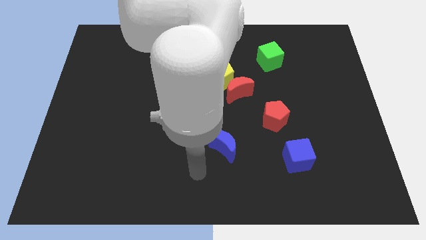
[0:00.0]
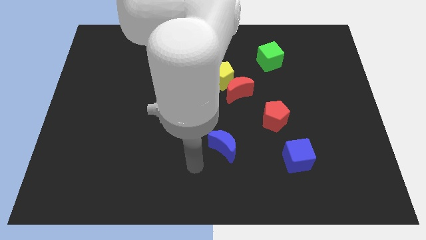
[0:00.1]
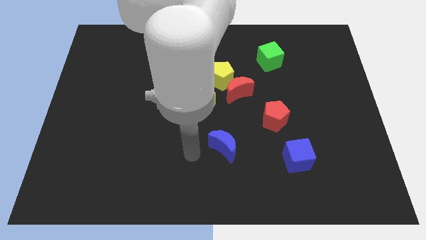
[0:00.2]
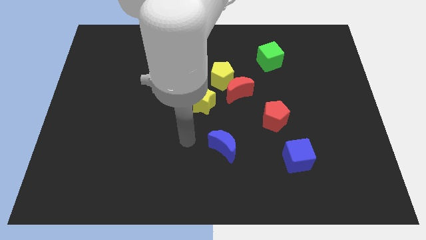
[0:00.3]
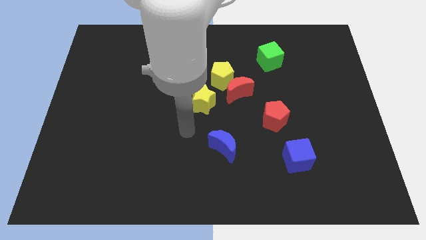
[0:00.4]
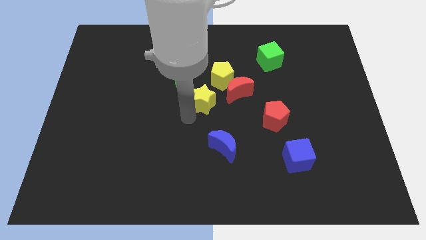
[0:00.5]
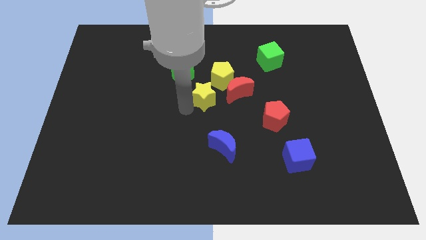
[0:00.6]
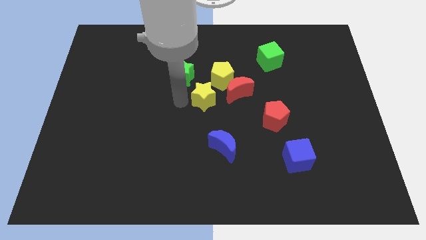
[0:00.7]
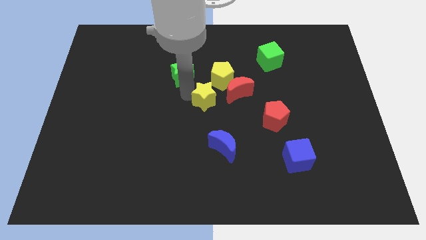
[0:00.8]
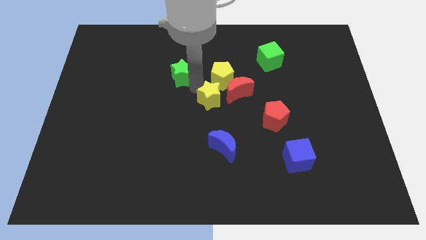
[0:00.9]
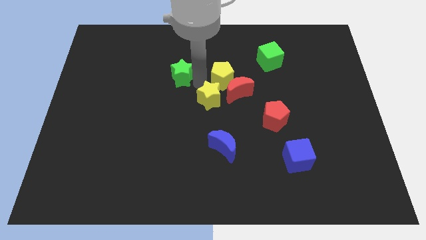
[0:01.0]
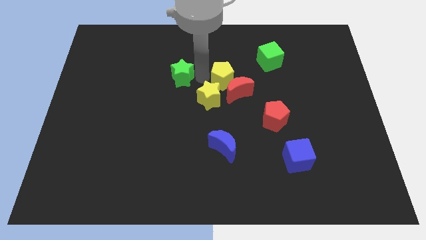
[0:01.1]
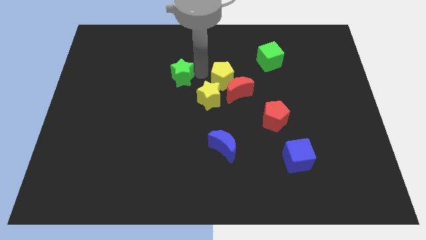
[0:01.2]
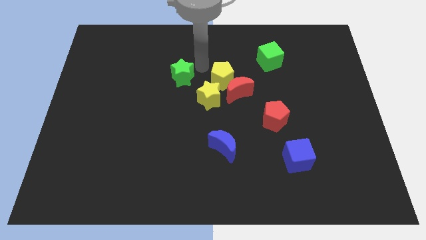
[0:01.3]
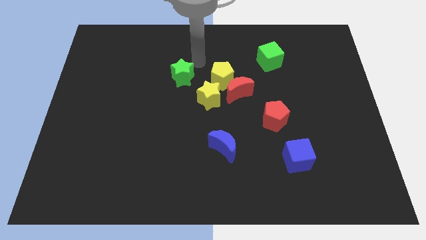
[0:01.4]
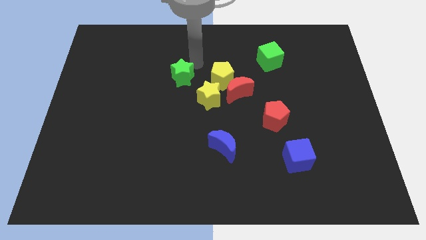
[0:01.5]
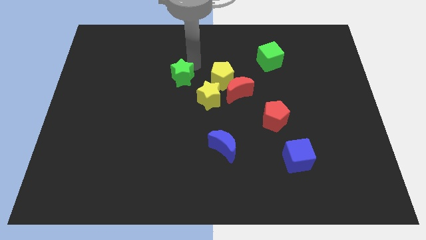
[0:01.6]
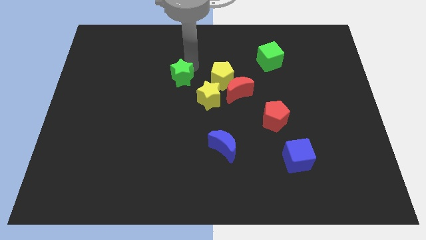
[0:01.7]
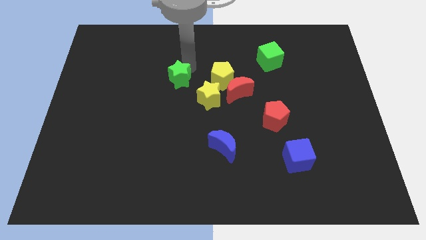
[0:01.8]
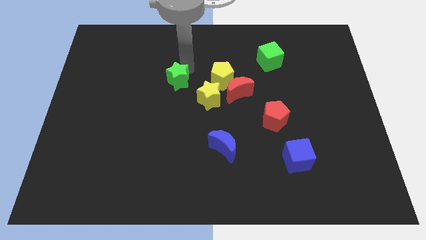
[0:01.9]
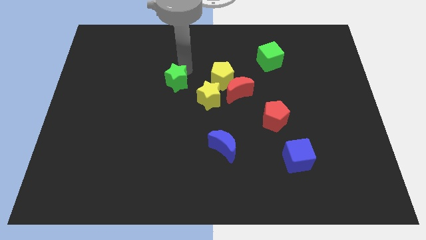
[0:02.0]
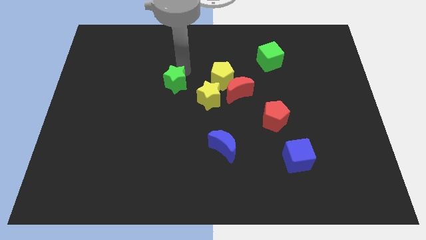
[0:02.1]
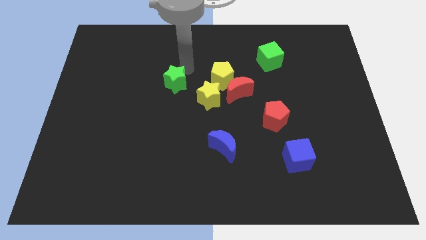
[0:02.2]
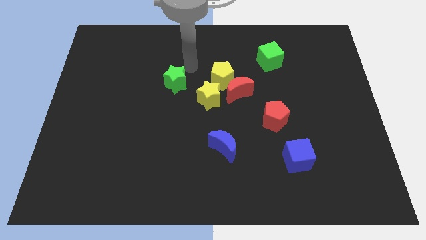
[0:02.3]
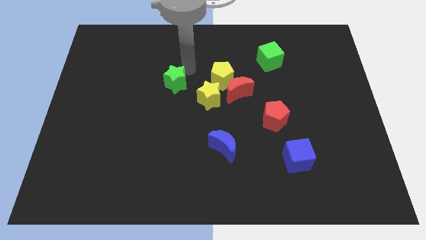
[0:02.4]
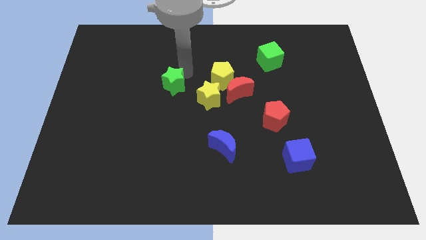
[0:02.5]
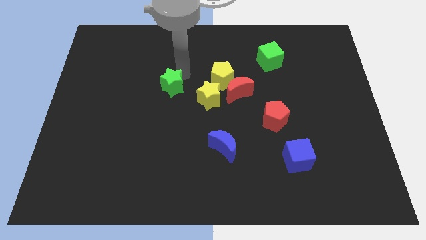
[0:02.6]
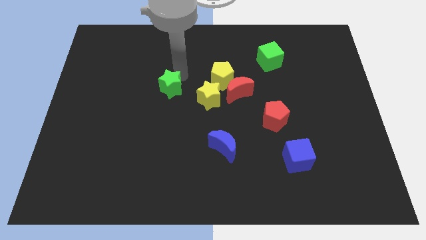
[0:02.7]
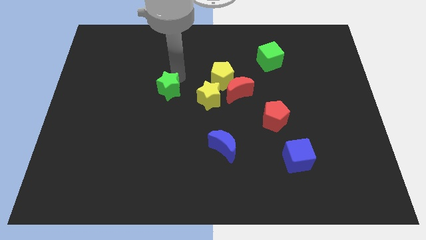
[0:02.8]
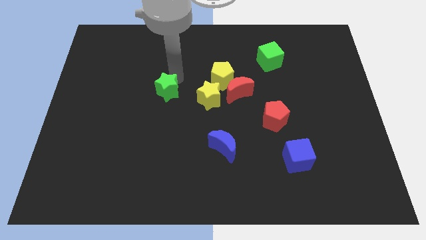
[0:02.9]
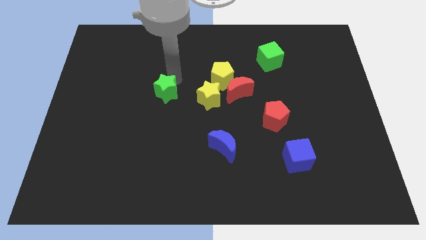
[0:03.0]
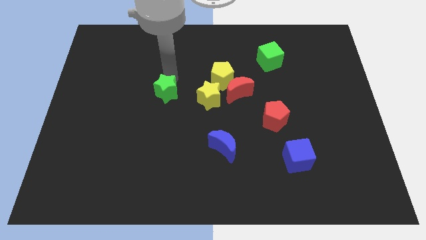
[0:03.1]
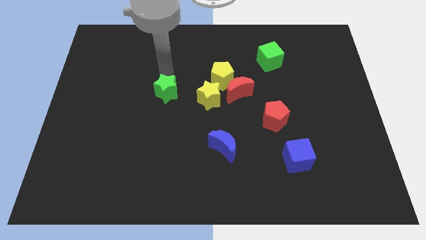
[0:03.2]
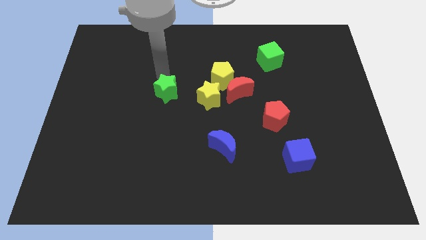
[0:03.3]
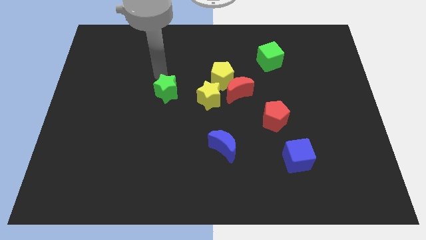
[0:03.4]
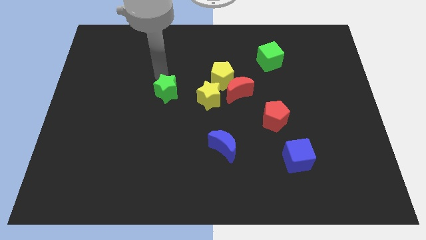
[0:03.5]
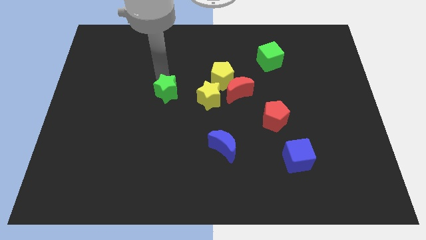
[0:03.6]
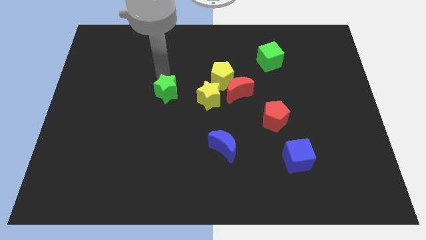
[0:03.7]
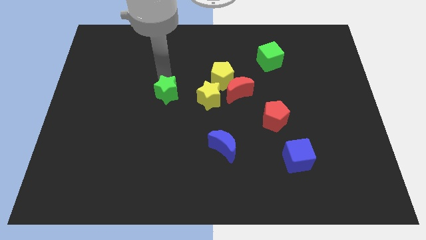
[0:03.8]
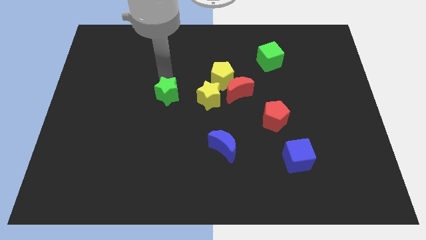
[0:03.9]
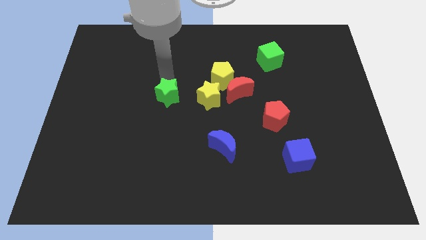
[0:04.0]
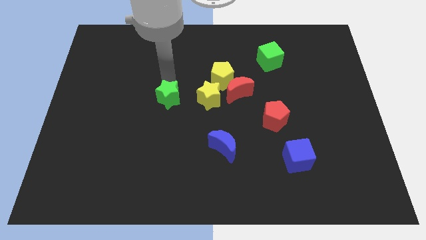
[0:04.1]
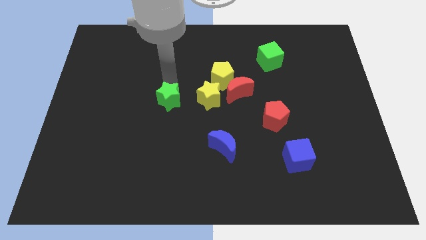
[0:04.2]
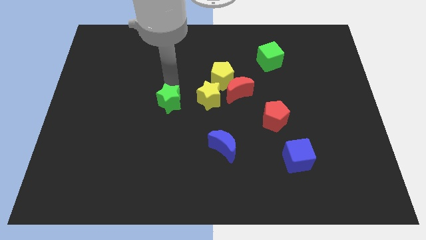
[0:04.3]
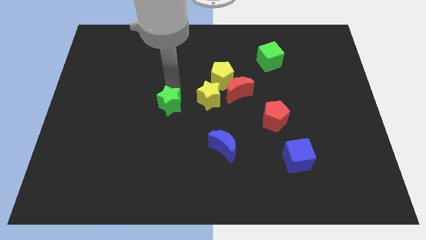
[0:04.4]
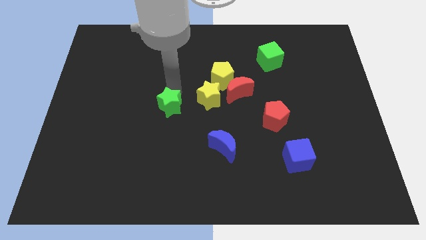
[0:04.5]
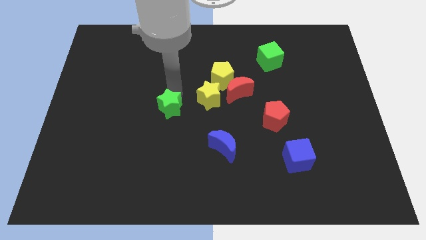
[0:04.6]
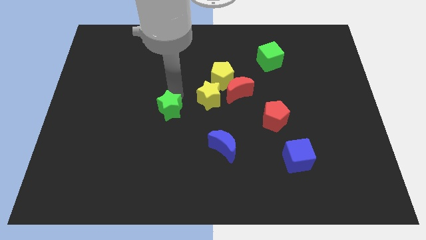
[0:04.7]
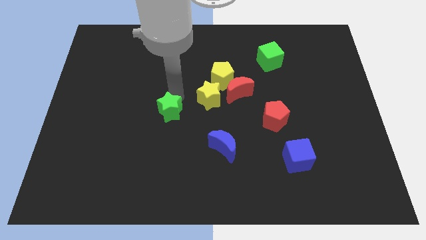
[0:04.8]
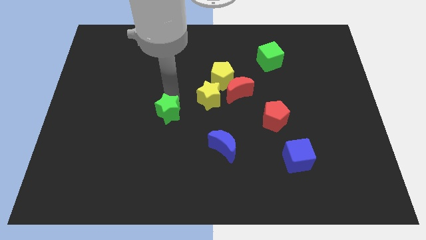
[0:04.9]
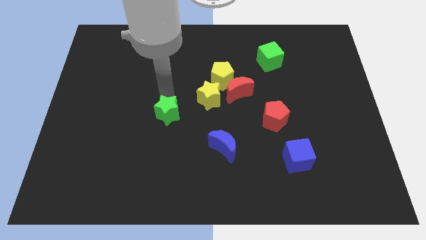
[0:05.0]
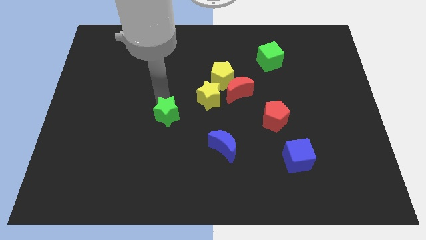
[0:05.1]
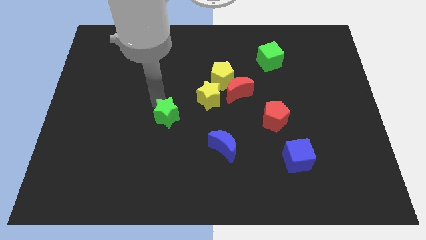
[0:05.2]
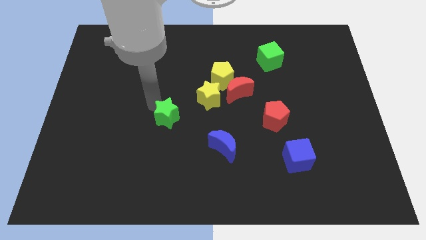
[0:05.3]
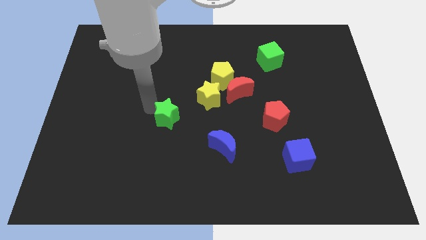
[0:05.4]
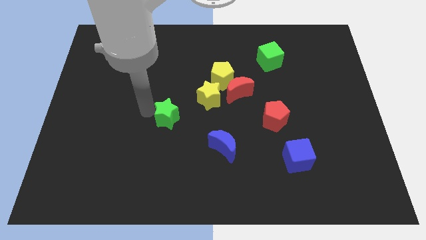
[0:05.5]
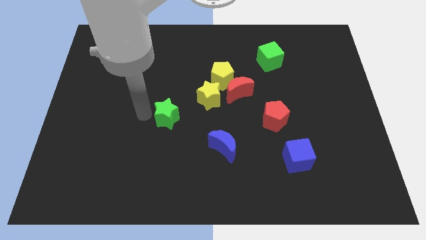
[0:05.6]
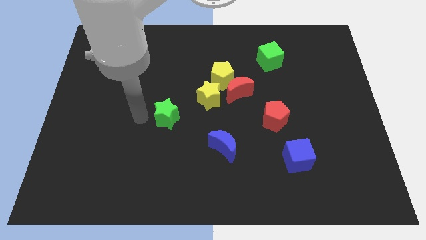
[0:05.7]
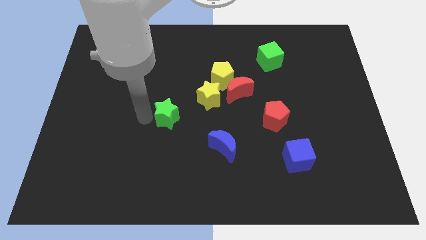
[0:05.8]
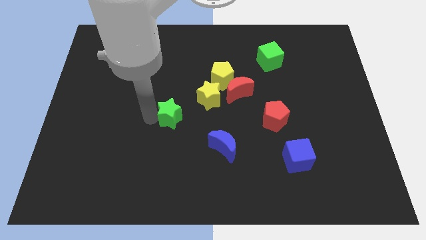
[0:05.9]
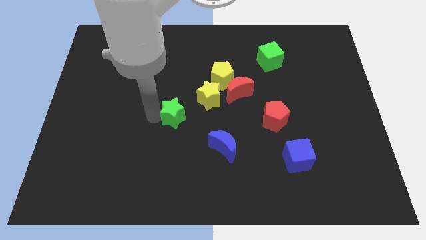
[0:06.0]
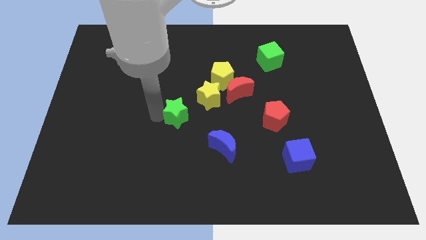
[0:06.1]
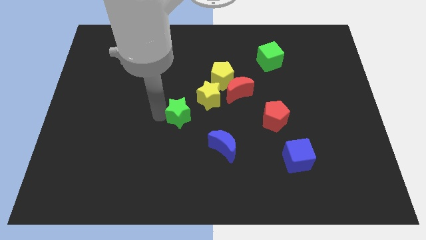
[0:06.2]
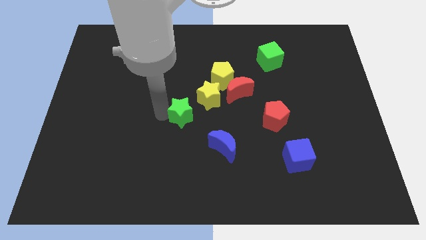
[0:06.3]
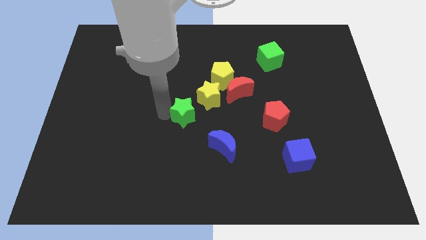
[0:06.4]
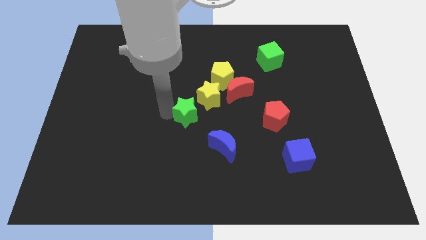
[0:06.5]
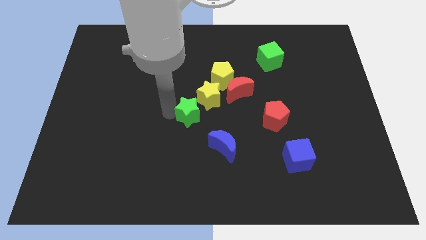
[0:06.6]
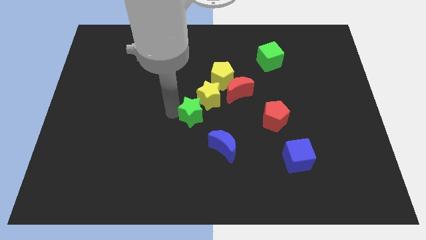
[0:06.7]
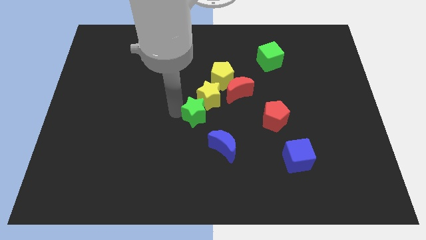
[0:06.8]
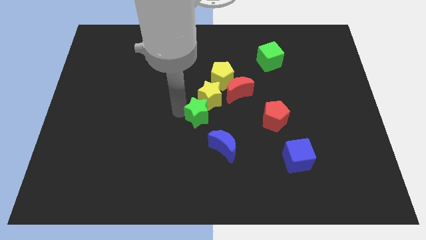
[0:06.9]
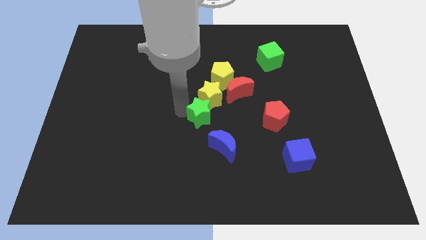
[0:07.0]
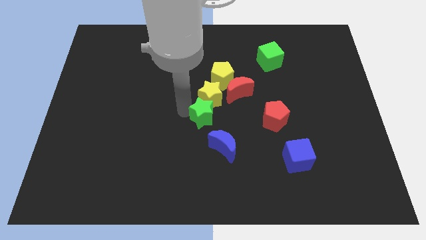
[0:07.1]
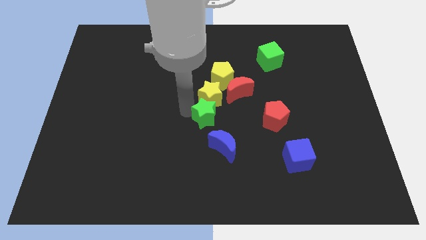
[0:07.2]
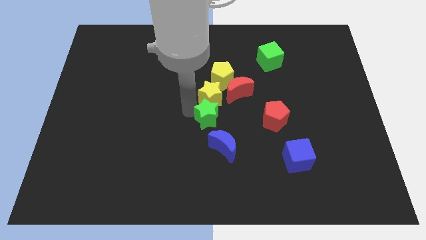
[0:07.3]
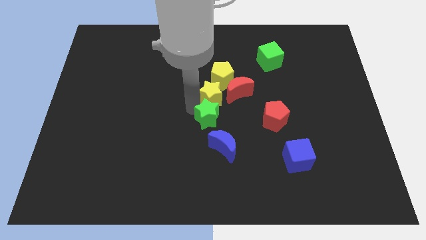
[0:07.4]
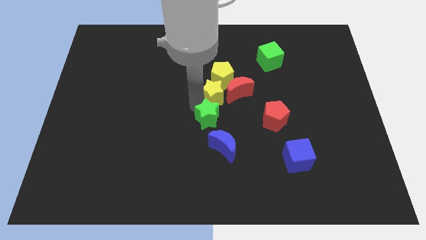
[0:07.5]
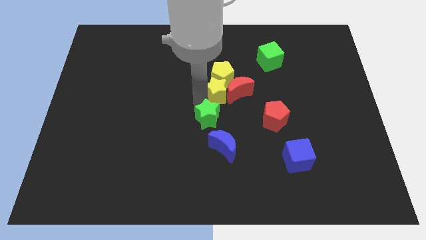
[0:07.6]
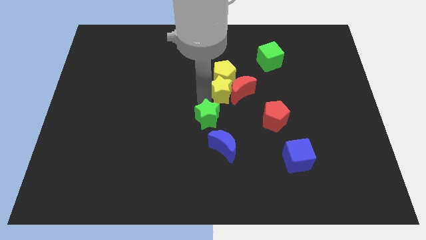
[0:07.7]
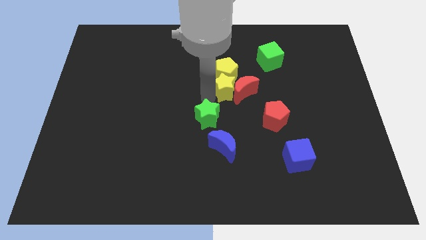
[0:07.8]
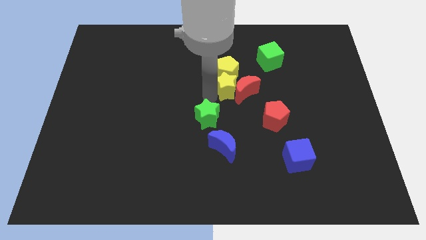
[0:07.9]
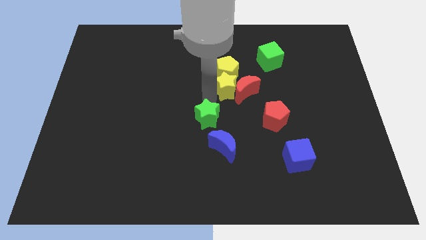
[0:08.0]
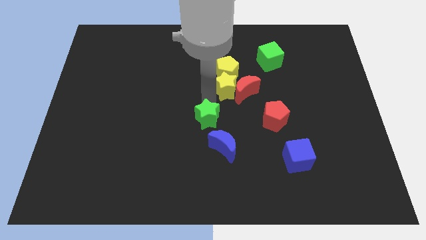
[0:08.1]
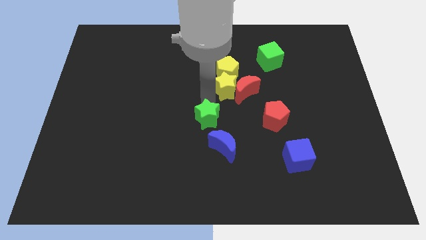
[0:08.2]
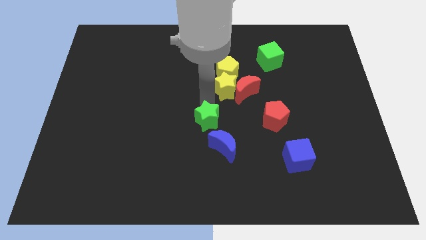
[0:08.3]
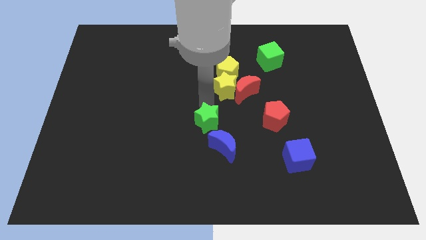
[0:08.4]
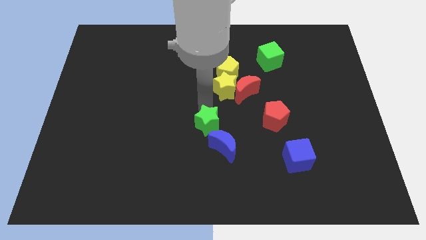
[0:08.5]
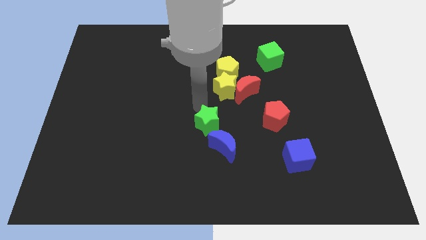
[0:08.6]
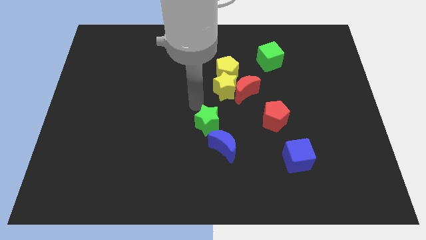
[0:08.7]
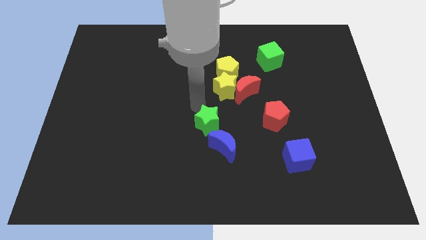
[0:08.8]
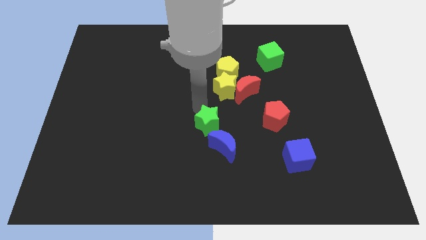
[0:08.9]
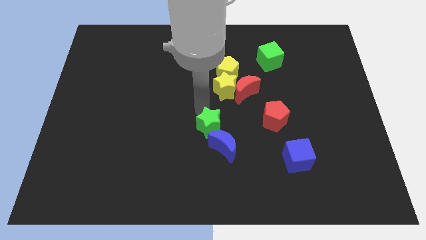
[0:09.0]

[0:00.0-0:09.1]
slide the green star next to the blue moon
